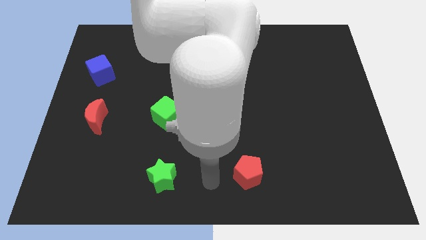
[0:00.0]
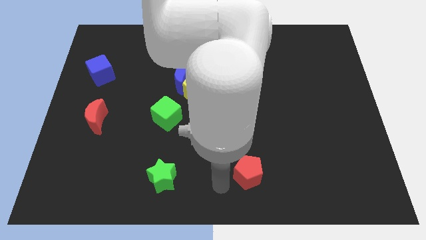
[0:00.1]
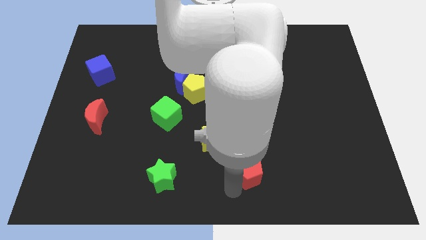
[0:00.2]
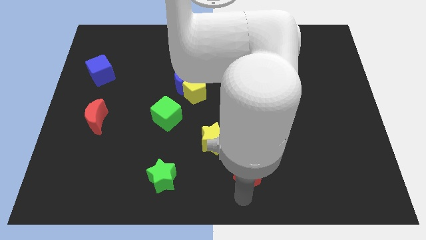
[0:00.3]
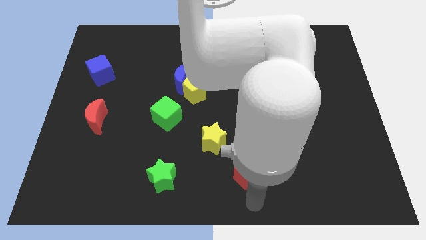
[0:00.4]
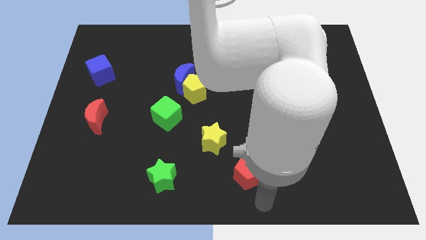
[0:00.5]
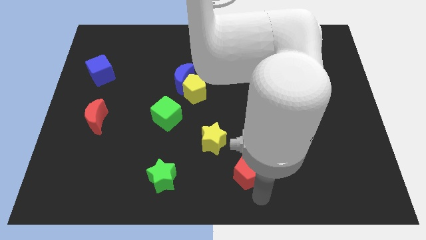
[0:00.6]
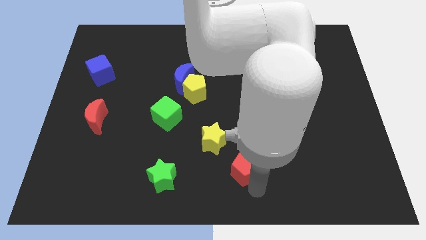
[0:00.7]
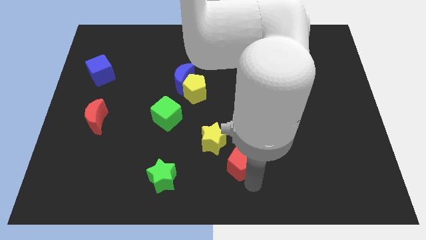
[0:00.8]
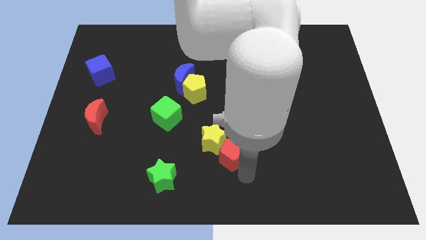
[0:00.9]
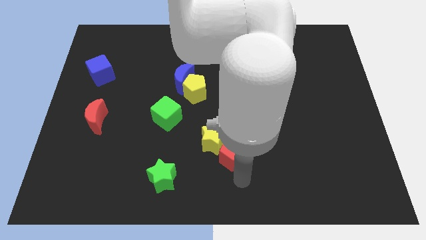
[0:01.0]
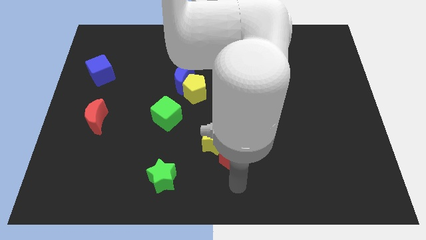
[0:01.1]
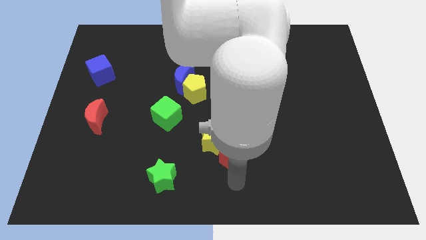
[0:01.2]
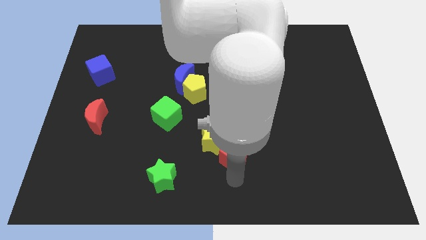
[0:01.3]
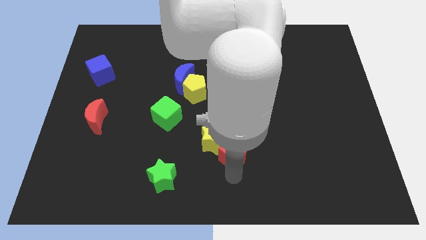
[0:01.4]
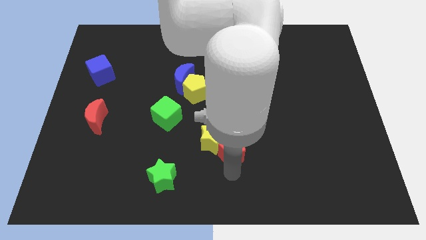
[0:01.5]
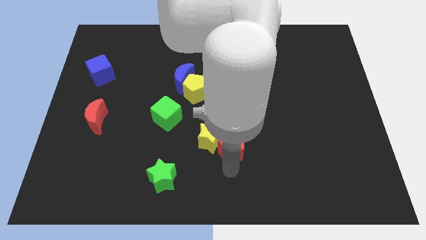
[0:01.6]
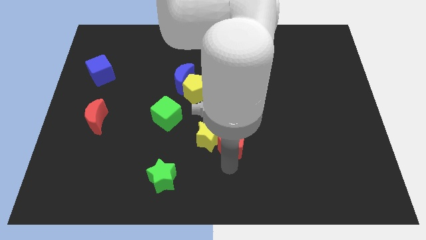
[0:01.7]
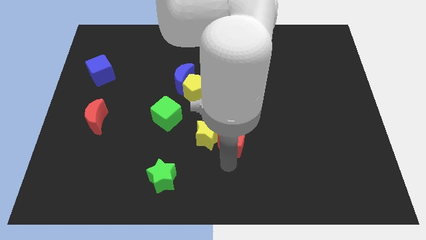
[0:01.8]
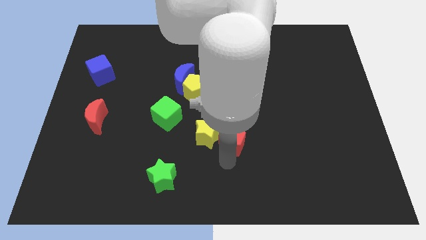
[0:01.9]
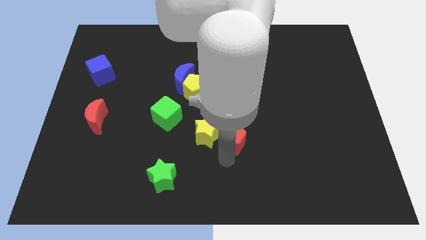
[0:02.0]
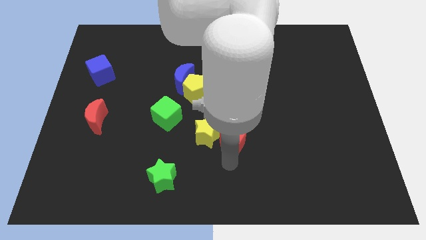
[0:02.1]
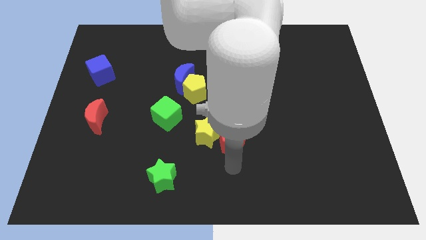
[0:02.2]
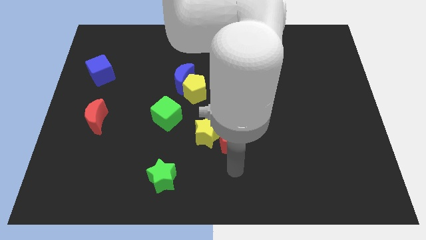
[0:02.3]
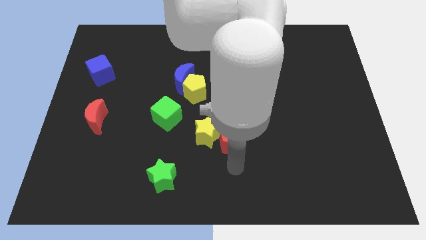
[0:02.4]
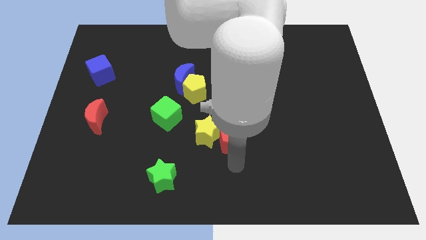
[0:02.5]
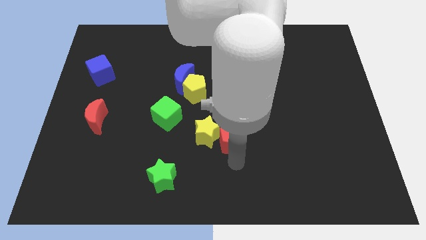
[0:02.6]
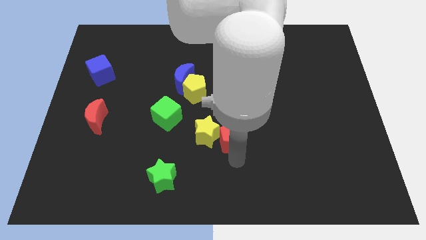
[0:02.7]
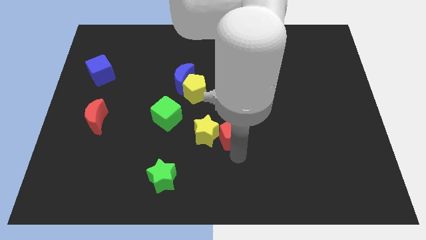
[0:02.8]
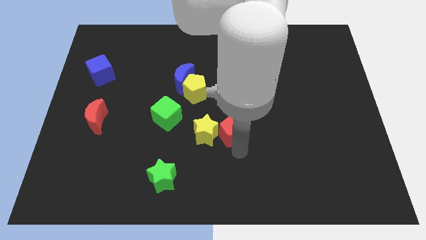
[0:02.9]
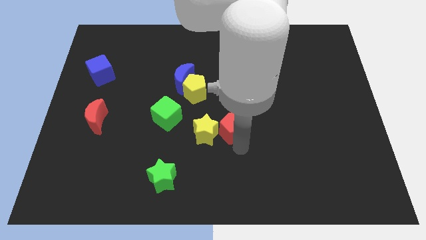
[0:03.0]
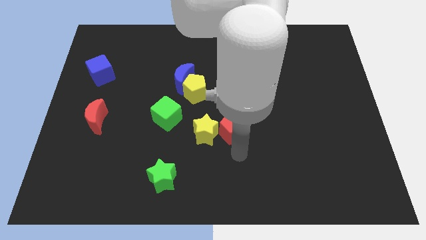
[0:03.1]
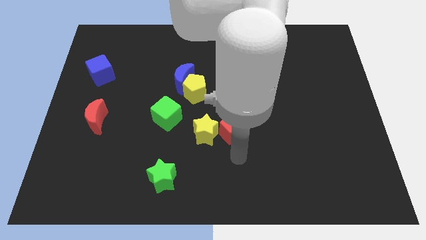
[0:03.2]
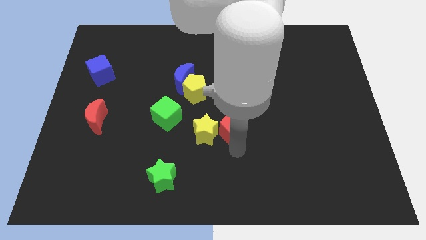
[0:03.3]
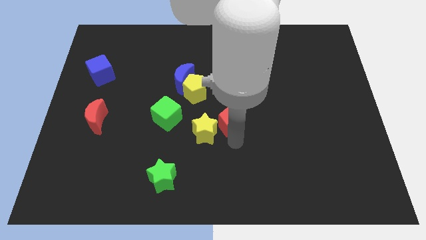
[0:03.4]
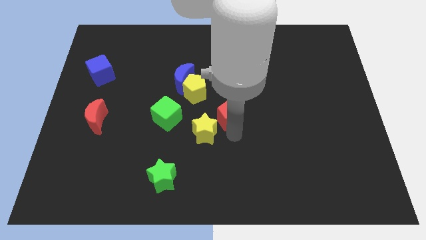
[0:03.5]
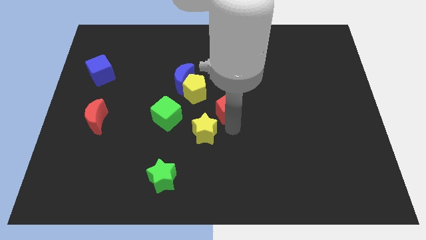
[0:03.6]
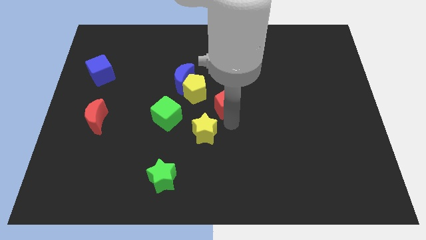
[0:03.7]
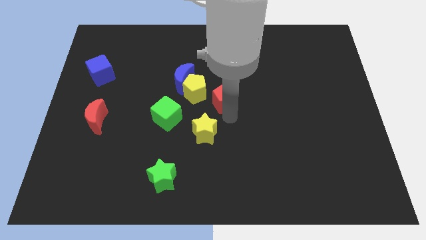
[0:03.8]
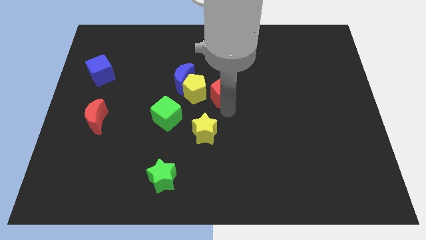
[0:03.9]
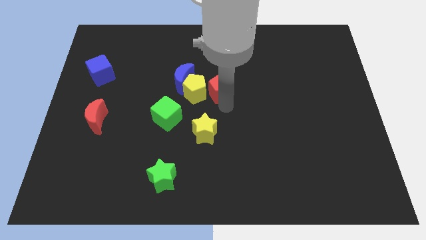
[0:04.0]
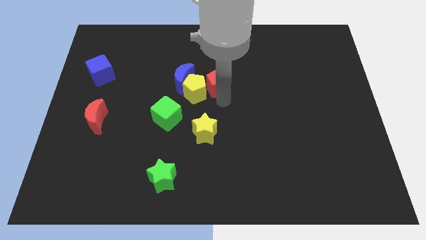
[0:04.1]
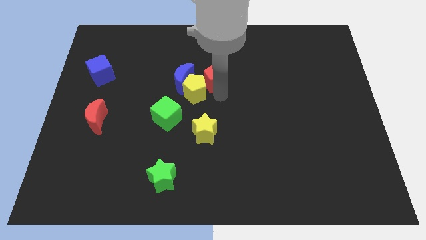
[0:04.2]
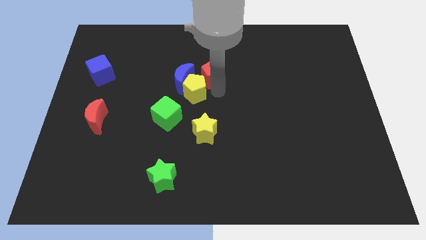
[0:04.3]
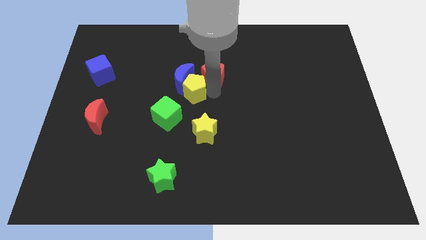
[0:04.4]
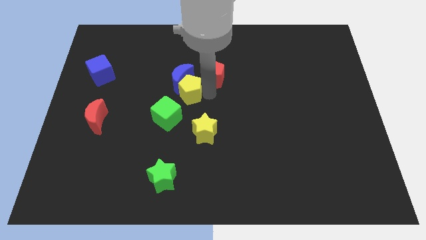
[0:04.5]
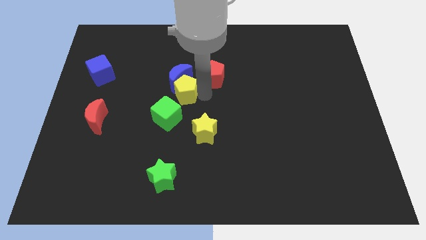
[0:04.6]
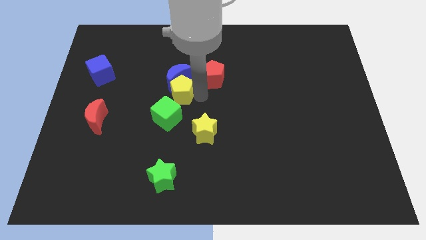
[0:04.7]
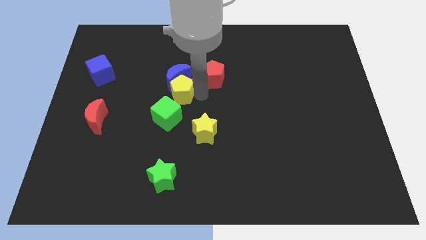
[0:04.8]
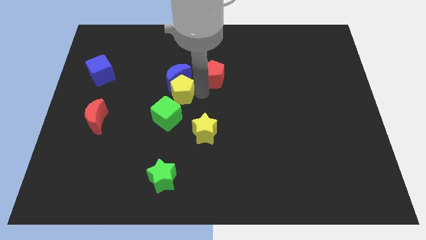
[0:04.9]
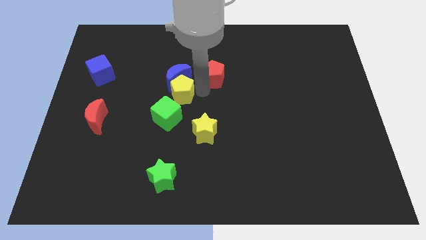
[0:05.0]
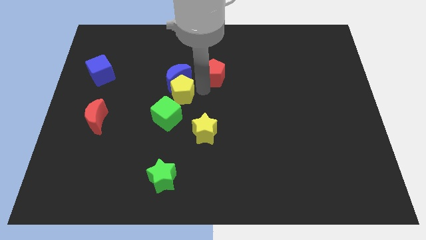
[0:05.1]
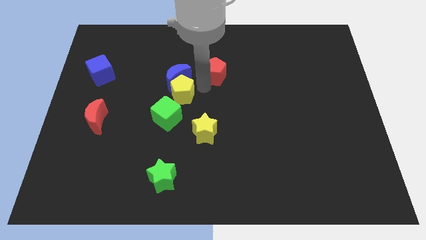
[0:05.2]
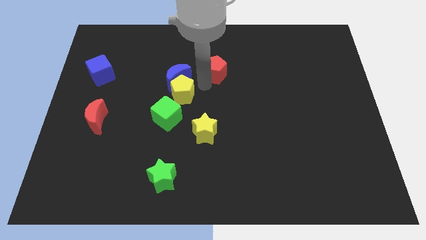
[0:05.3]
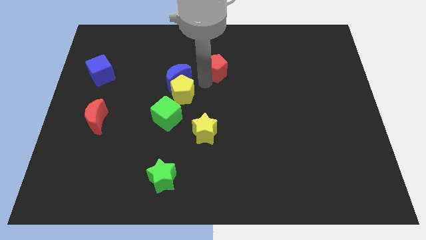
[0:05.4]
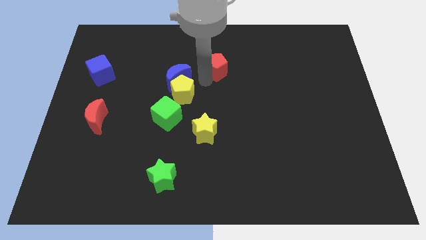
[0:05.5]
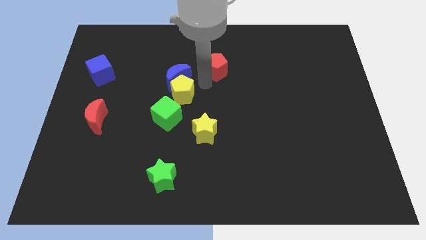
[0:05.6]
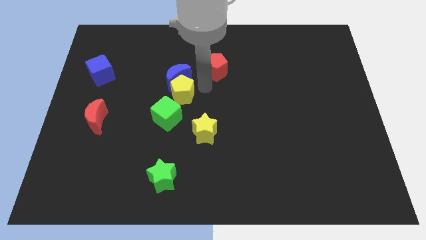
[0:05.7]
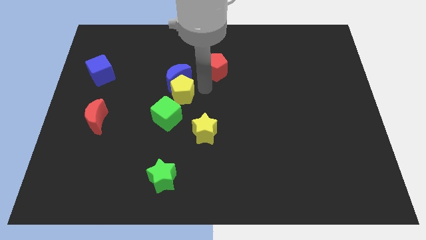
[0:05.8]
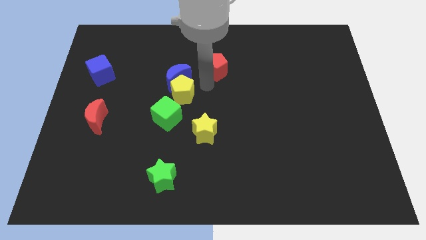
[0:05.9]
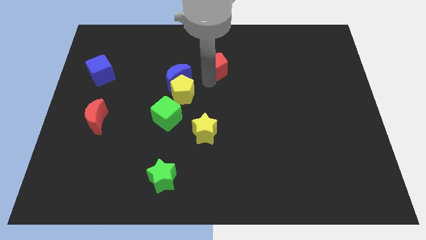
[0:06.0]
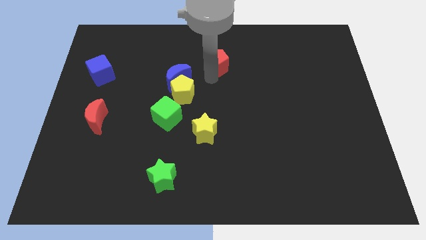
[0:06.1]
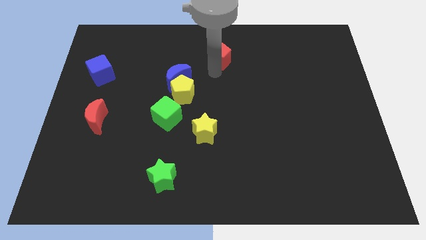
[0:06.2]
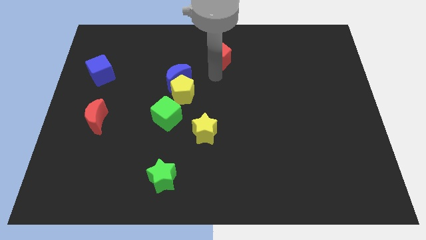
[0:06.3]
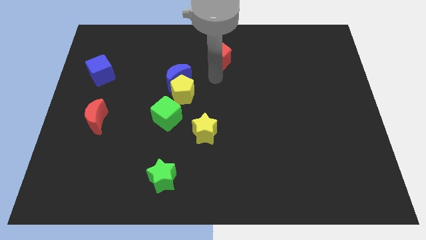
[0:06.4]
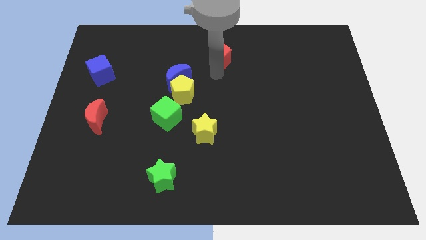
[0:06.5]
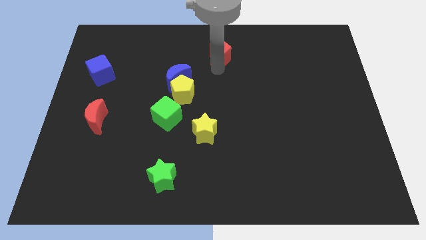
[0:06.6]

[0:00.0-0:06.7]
slide the red pentagon to the top side
